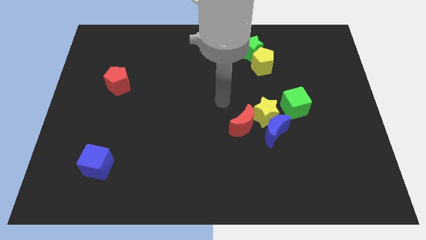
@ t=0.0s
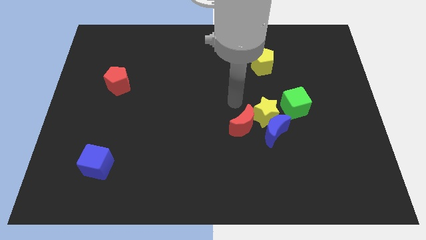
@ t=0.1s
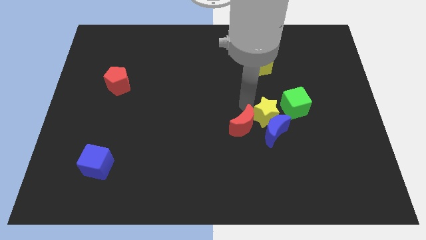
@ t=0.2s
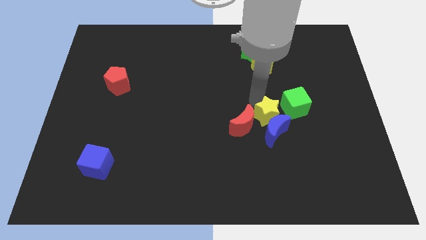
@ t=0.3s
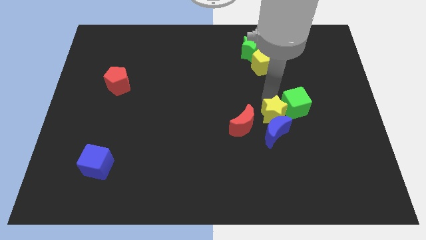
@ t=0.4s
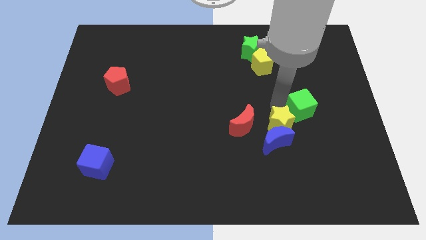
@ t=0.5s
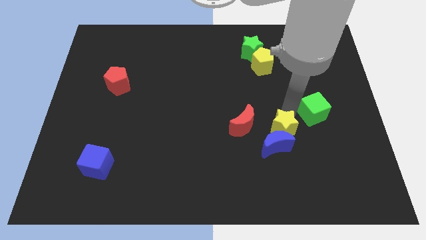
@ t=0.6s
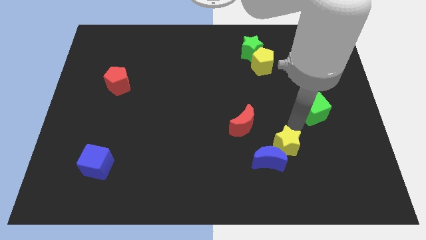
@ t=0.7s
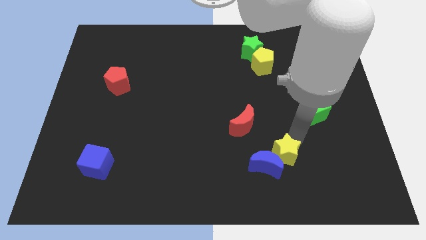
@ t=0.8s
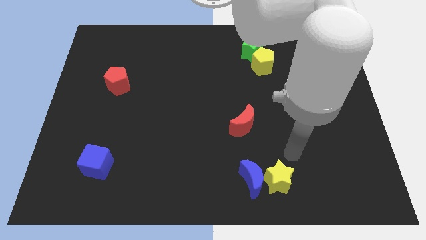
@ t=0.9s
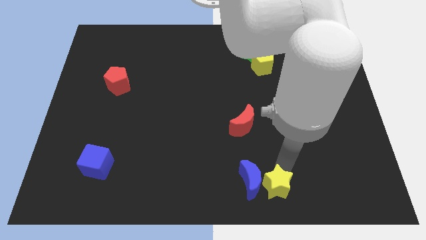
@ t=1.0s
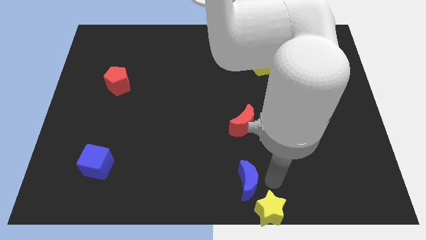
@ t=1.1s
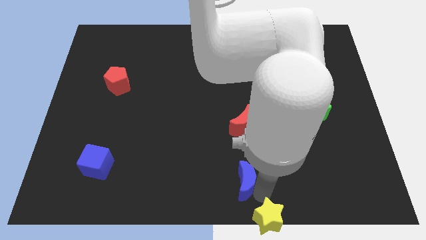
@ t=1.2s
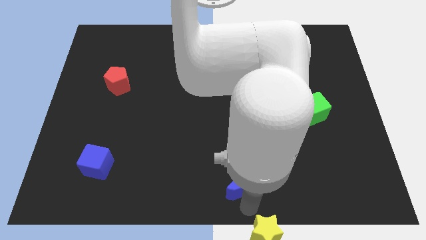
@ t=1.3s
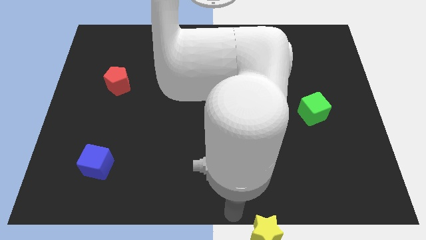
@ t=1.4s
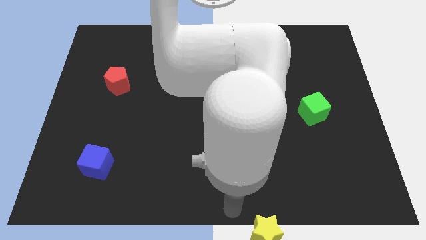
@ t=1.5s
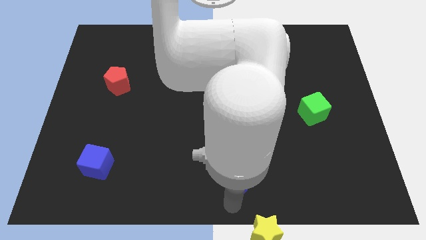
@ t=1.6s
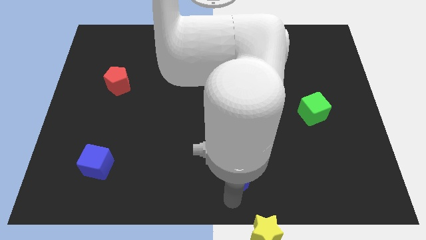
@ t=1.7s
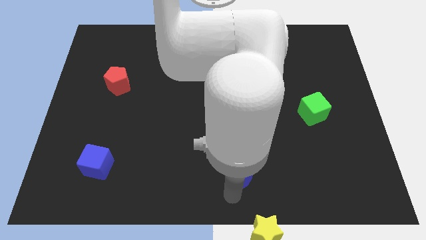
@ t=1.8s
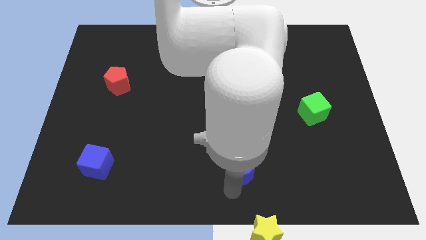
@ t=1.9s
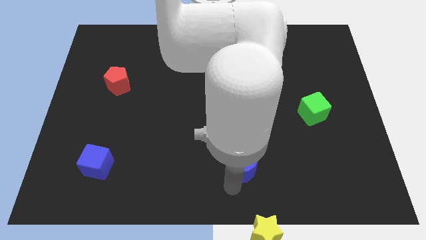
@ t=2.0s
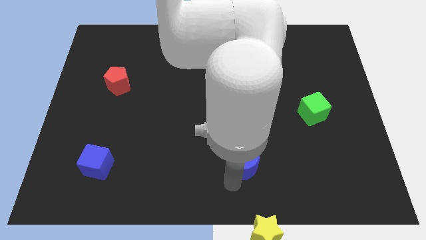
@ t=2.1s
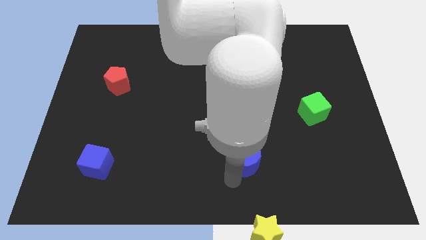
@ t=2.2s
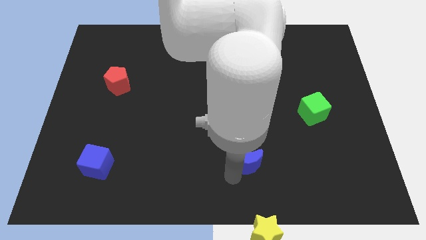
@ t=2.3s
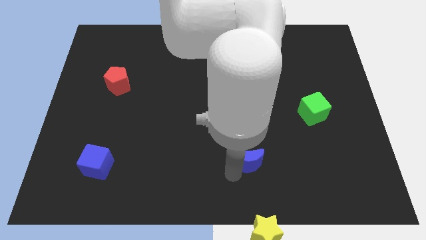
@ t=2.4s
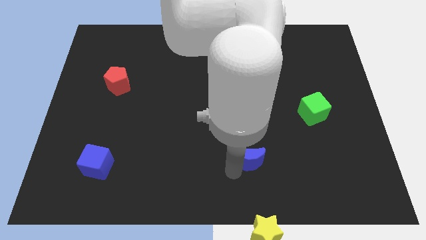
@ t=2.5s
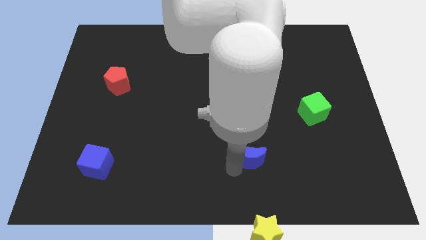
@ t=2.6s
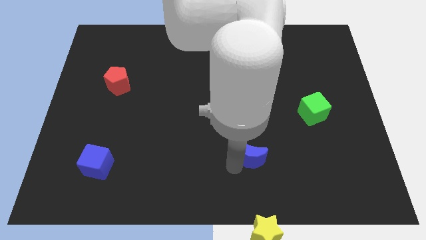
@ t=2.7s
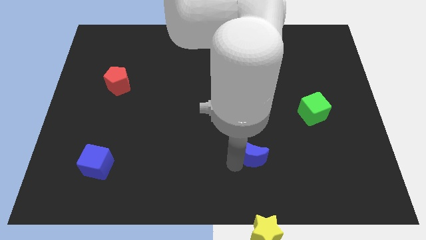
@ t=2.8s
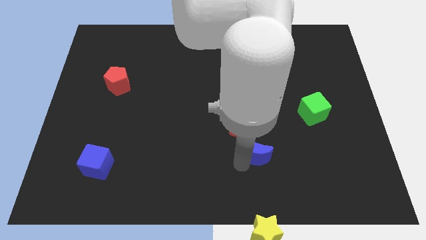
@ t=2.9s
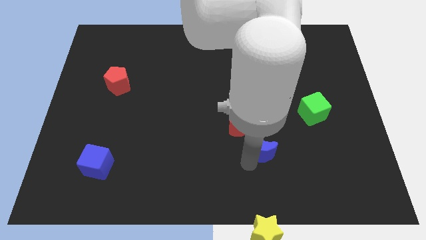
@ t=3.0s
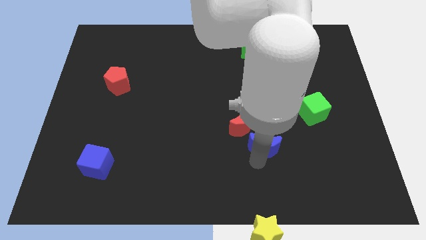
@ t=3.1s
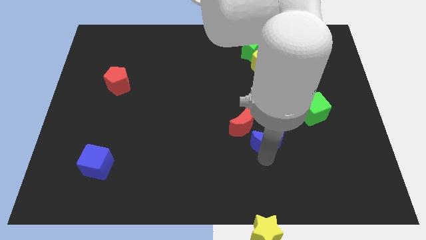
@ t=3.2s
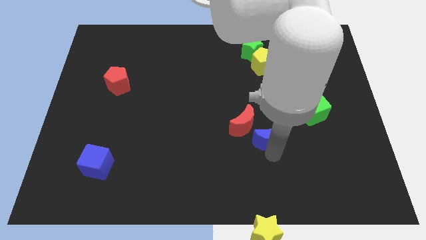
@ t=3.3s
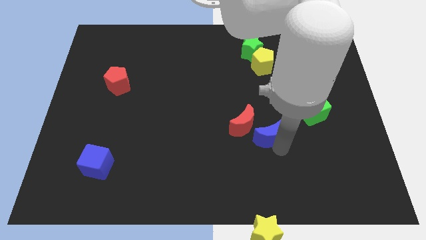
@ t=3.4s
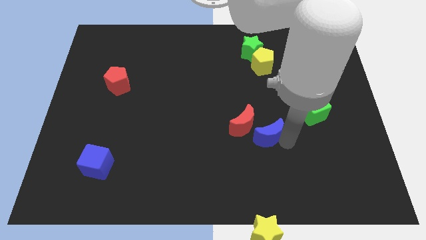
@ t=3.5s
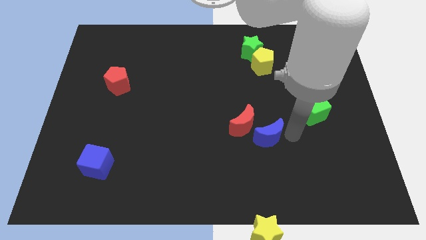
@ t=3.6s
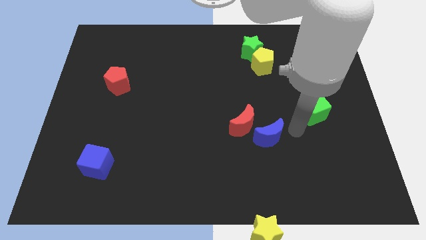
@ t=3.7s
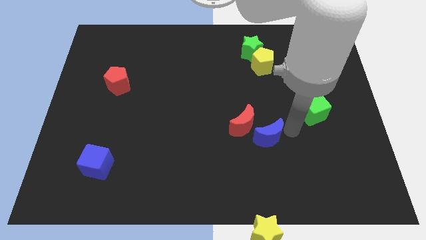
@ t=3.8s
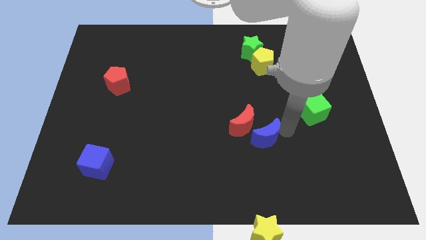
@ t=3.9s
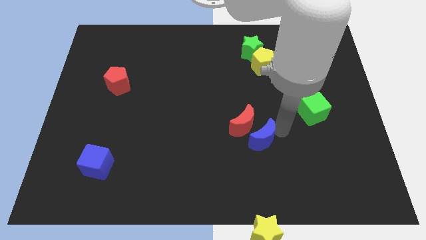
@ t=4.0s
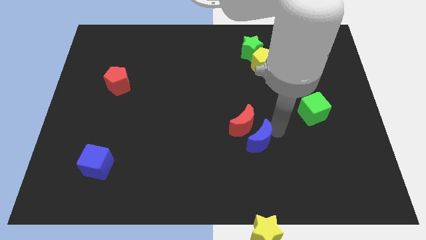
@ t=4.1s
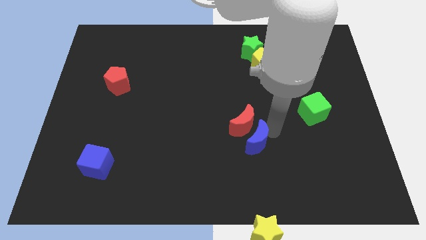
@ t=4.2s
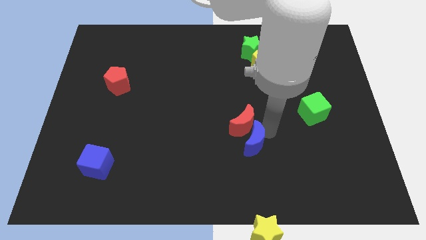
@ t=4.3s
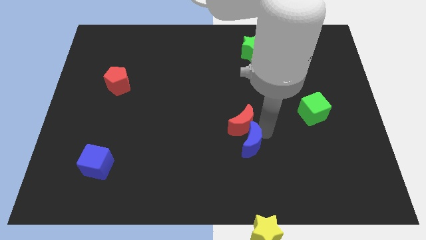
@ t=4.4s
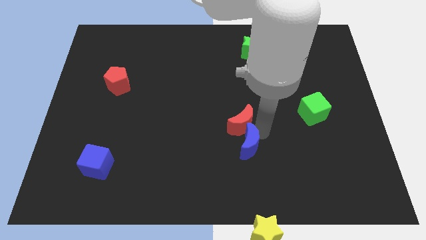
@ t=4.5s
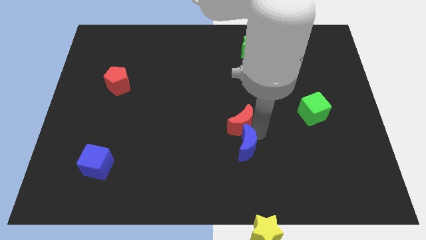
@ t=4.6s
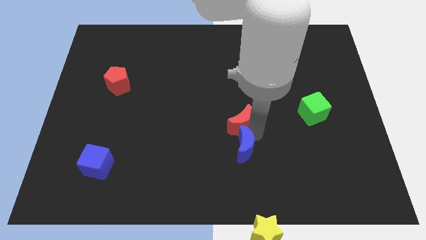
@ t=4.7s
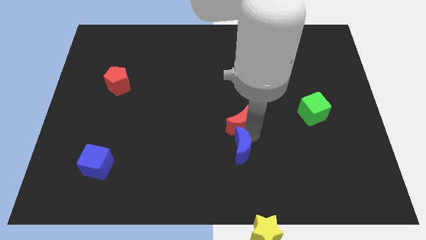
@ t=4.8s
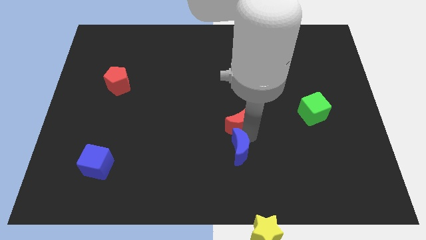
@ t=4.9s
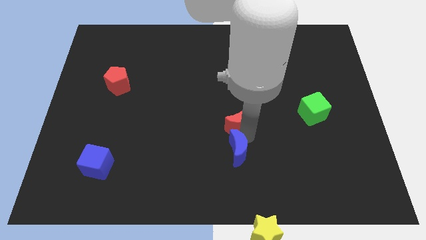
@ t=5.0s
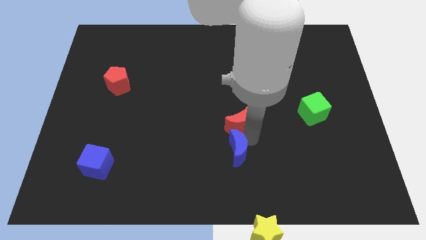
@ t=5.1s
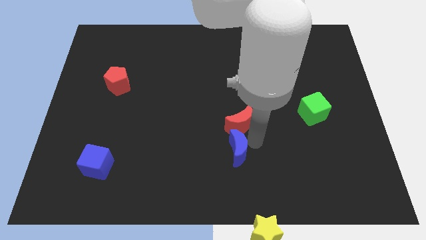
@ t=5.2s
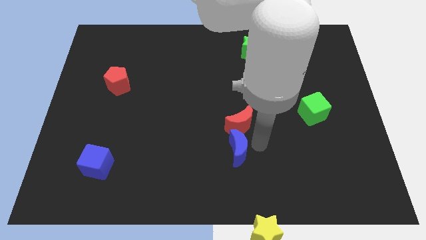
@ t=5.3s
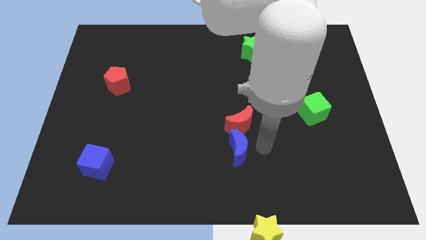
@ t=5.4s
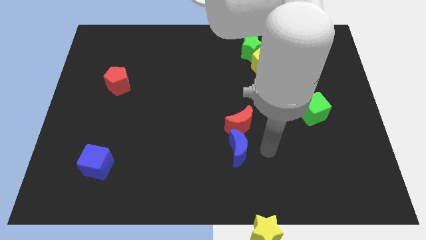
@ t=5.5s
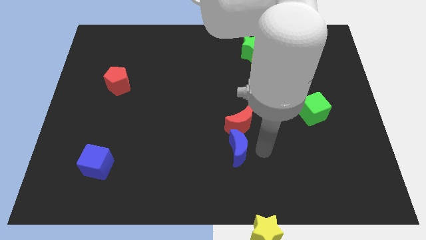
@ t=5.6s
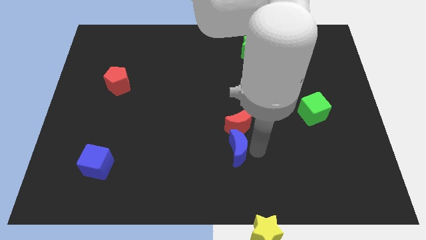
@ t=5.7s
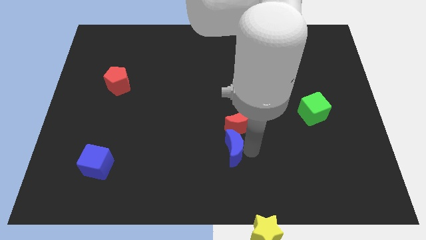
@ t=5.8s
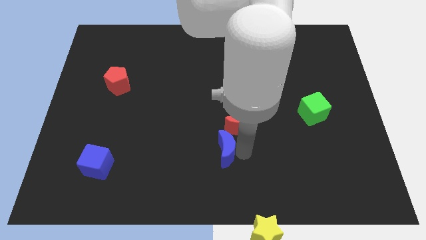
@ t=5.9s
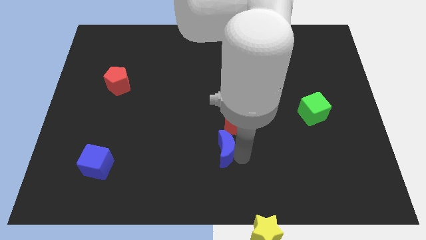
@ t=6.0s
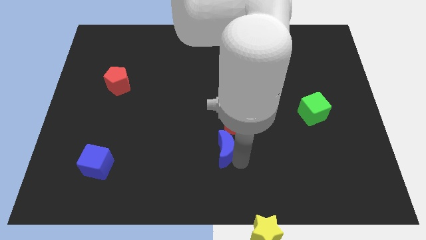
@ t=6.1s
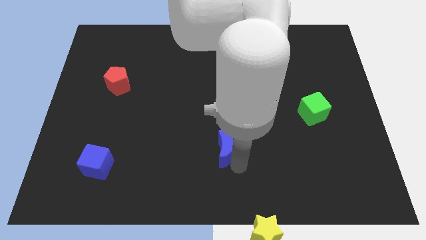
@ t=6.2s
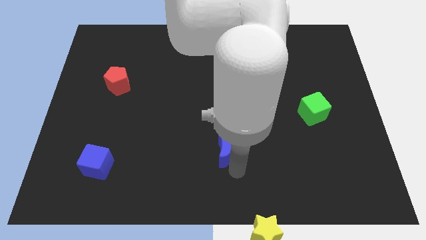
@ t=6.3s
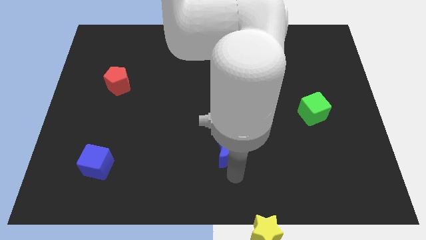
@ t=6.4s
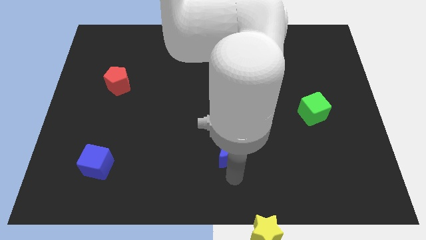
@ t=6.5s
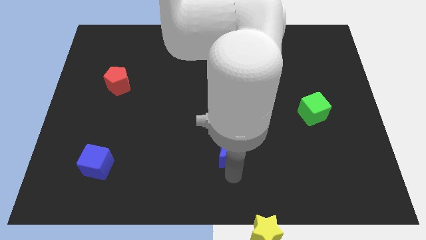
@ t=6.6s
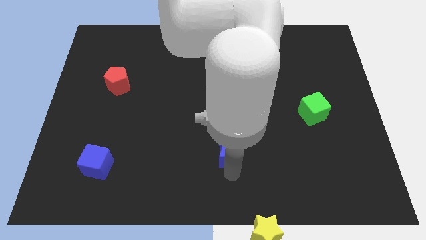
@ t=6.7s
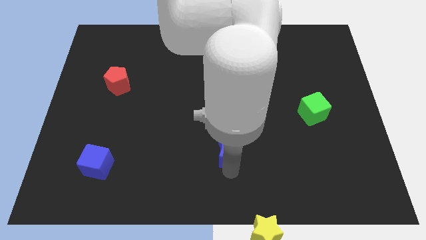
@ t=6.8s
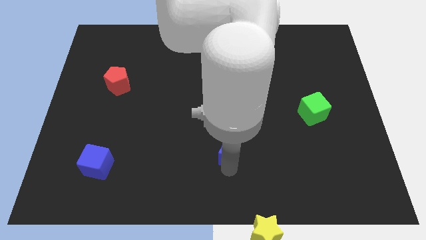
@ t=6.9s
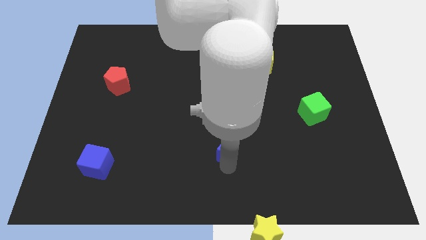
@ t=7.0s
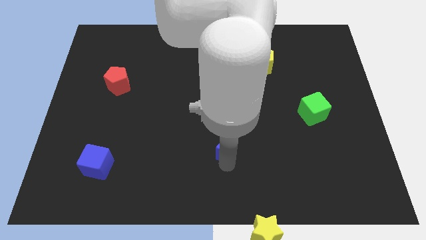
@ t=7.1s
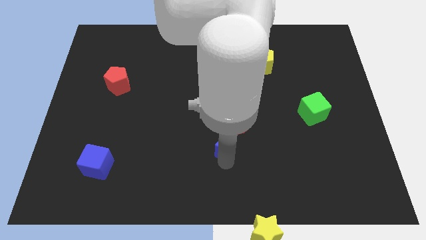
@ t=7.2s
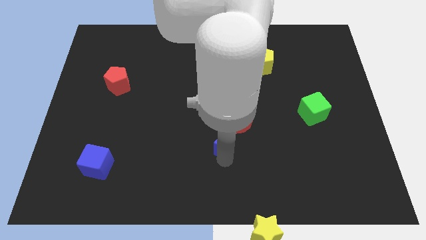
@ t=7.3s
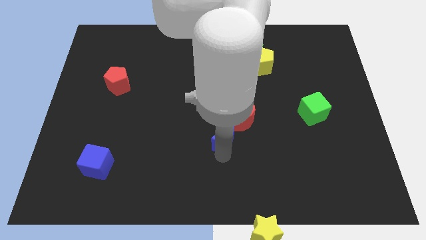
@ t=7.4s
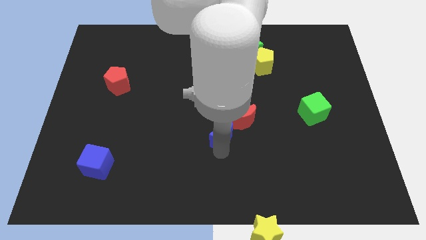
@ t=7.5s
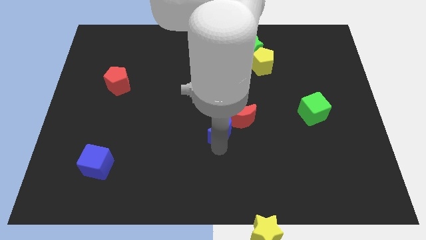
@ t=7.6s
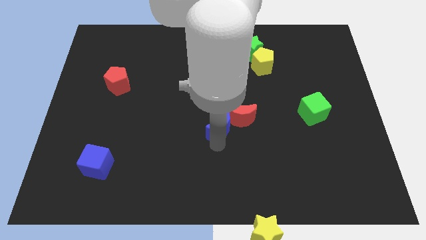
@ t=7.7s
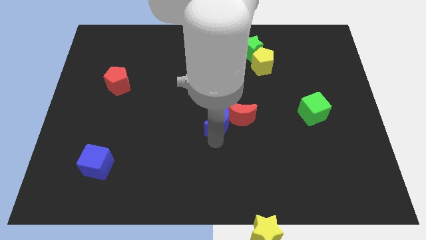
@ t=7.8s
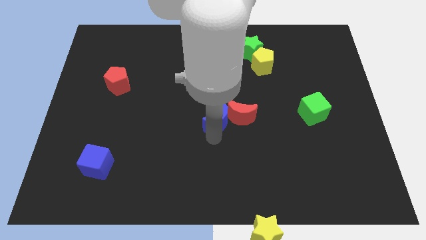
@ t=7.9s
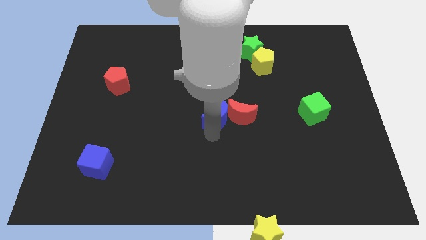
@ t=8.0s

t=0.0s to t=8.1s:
slide the blue moon diagonally up and to the left of the red moon
